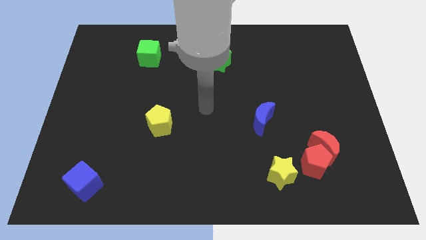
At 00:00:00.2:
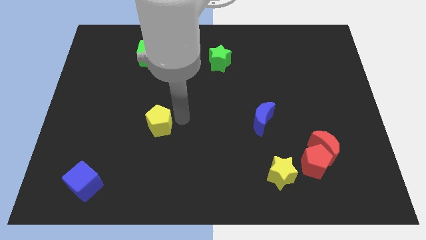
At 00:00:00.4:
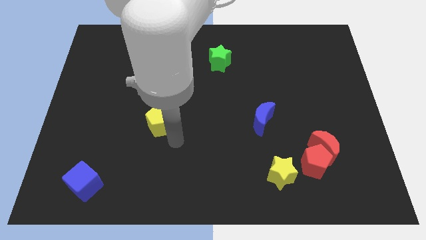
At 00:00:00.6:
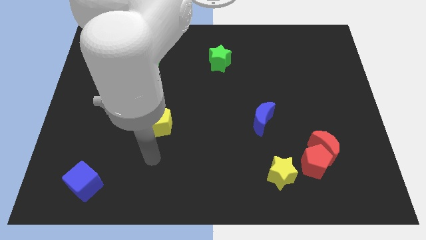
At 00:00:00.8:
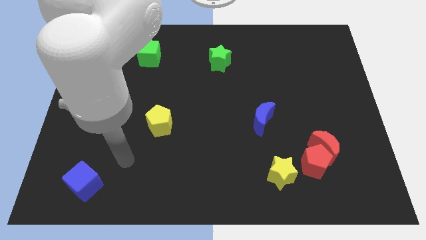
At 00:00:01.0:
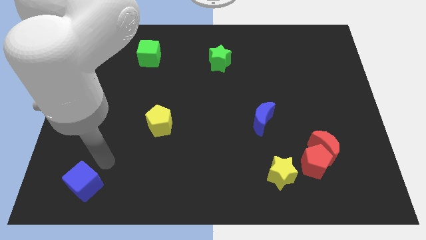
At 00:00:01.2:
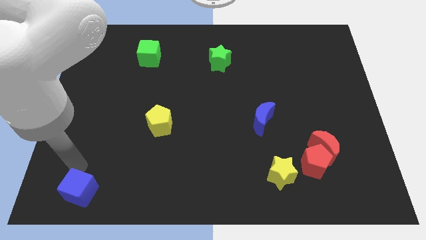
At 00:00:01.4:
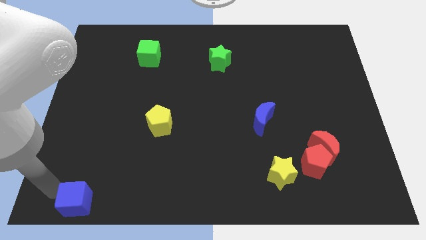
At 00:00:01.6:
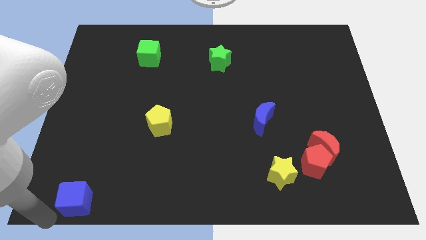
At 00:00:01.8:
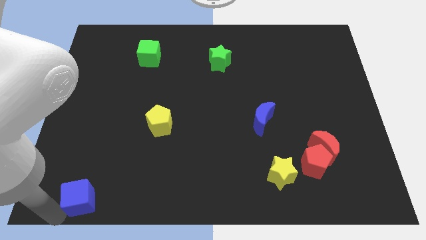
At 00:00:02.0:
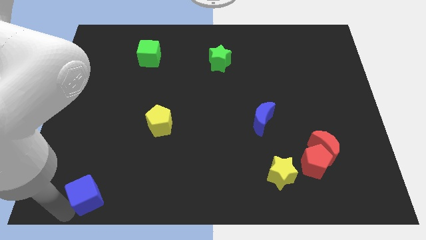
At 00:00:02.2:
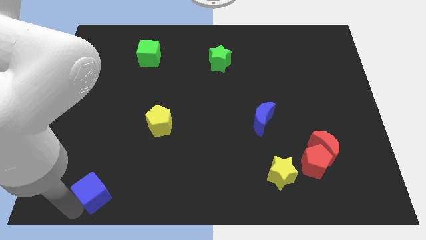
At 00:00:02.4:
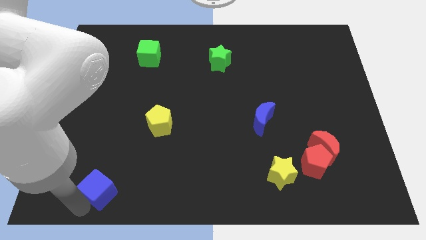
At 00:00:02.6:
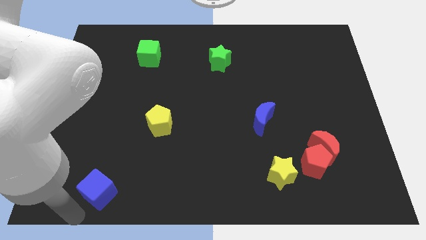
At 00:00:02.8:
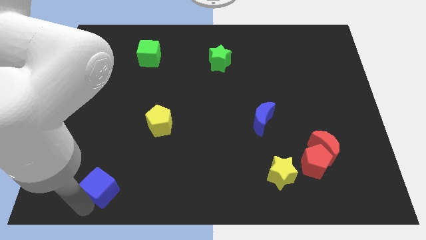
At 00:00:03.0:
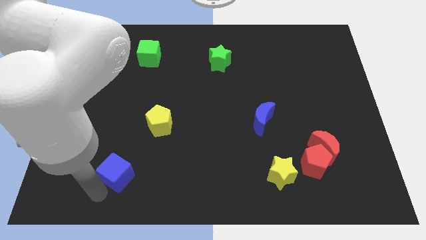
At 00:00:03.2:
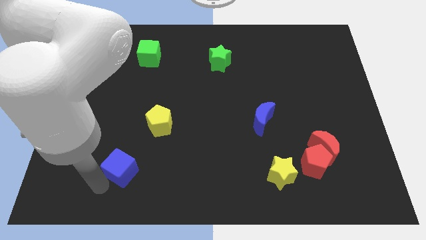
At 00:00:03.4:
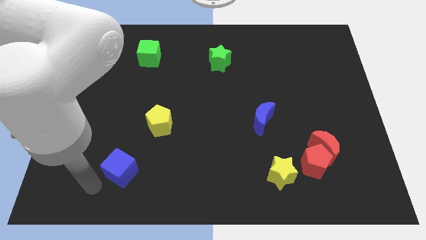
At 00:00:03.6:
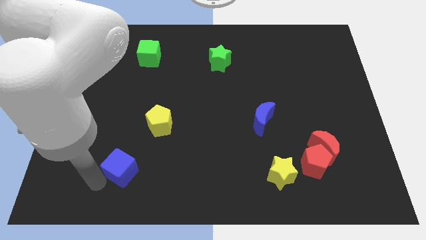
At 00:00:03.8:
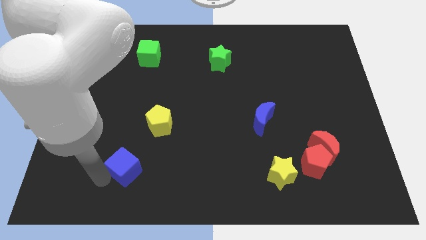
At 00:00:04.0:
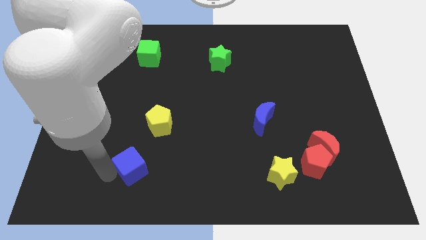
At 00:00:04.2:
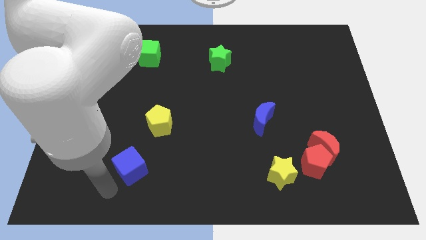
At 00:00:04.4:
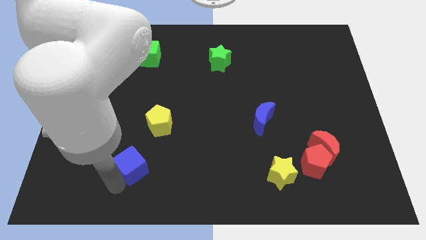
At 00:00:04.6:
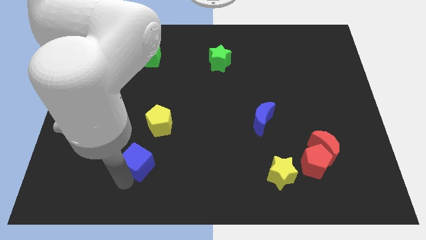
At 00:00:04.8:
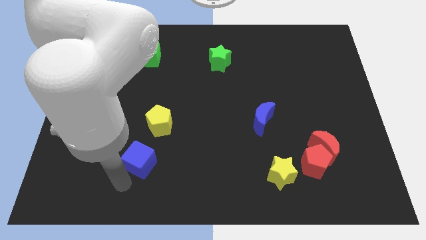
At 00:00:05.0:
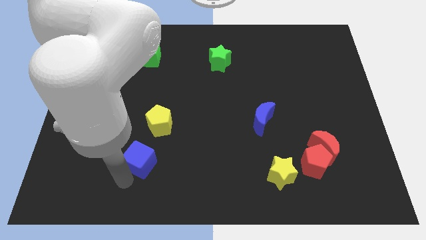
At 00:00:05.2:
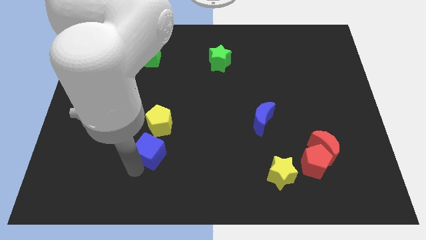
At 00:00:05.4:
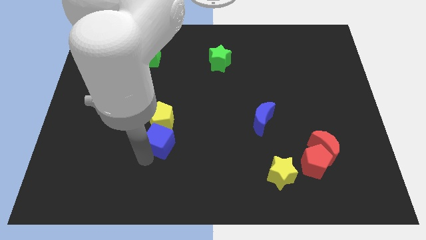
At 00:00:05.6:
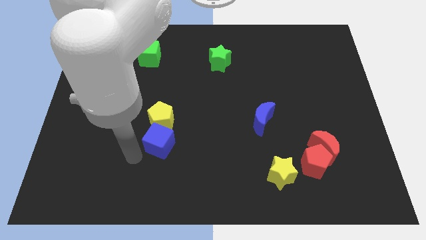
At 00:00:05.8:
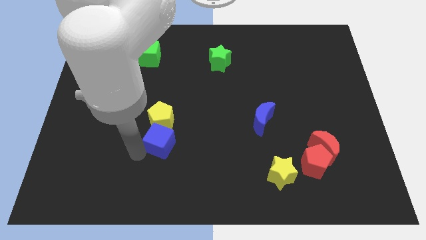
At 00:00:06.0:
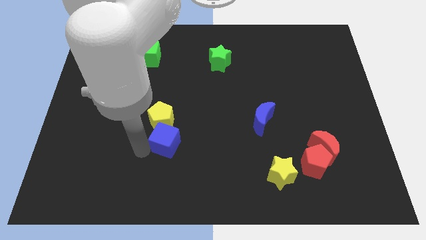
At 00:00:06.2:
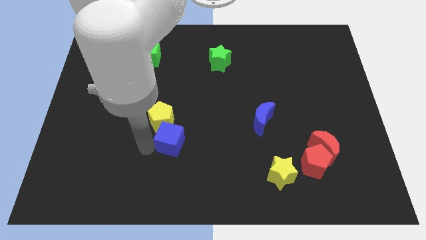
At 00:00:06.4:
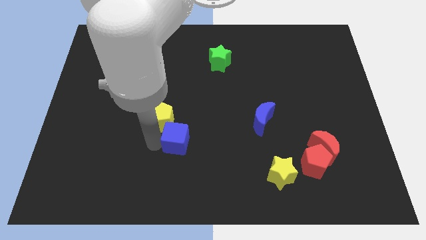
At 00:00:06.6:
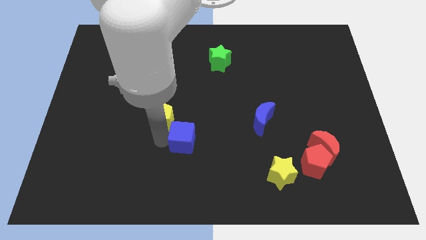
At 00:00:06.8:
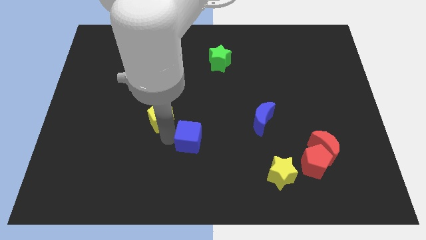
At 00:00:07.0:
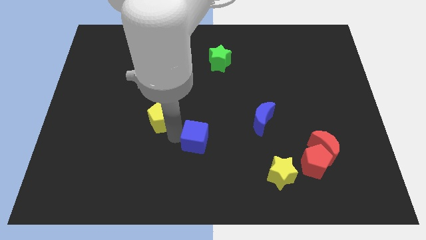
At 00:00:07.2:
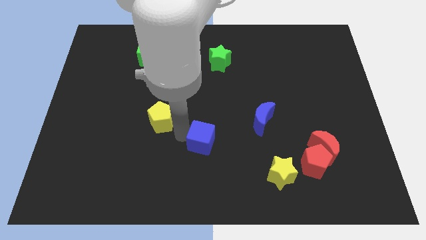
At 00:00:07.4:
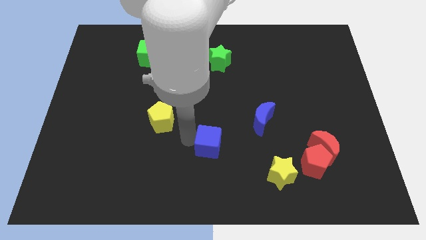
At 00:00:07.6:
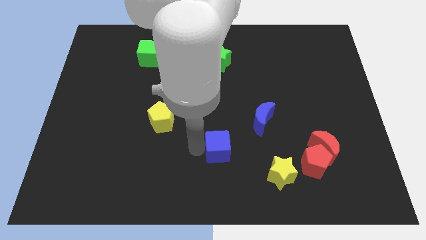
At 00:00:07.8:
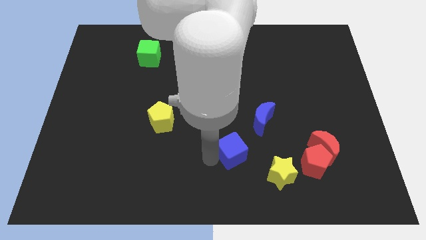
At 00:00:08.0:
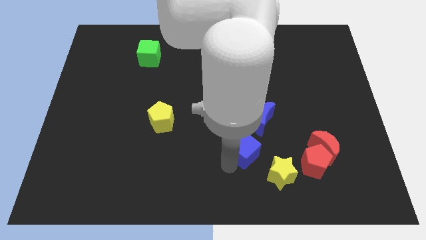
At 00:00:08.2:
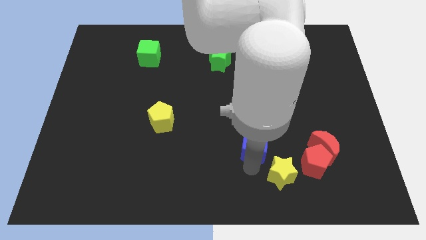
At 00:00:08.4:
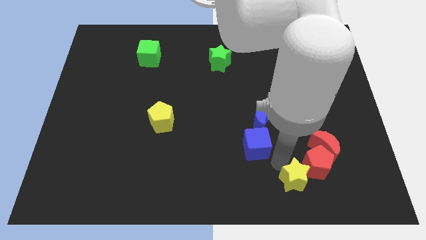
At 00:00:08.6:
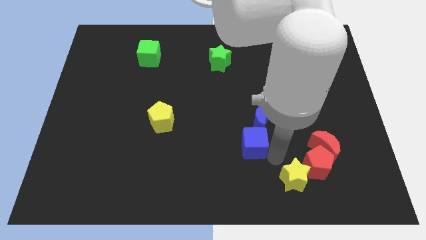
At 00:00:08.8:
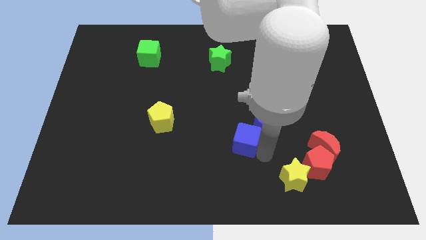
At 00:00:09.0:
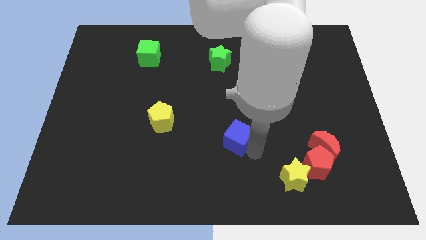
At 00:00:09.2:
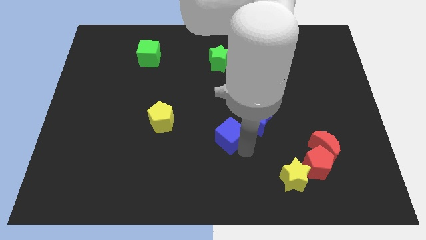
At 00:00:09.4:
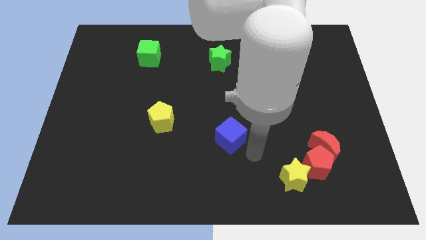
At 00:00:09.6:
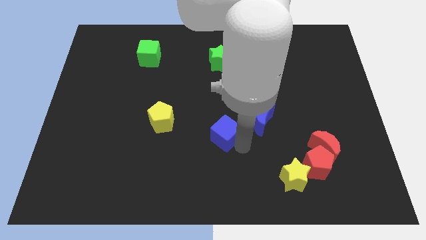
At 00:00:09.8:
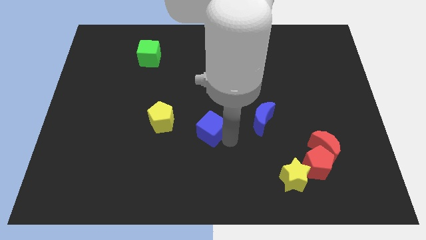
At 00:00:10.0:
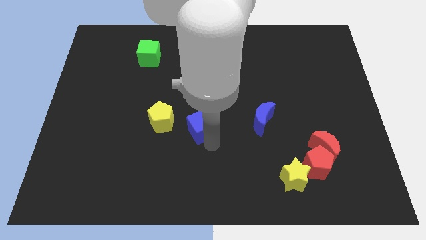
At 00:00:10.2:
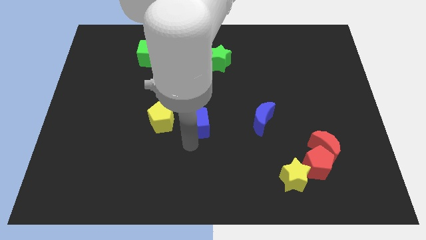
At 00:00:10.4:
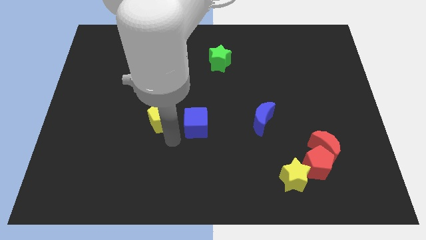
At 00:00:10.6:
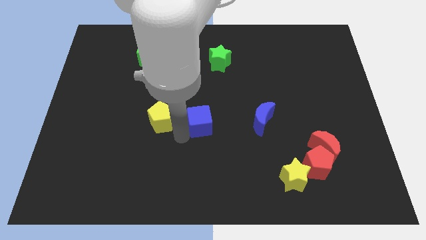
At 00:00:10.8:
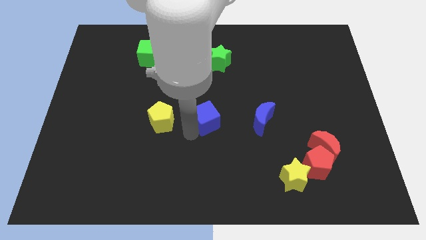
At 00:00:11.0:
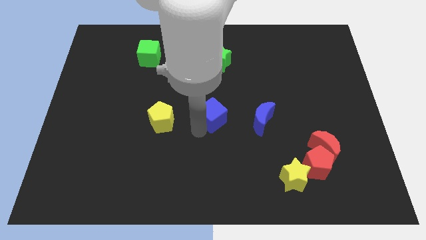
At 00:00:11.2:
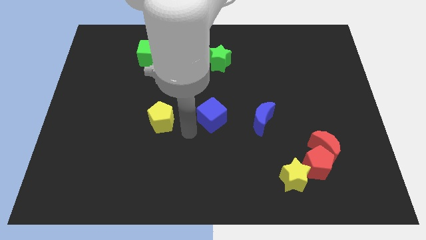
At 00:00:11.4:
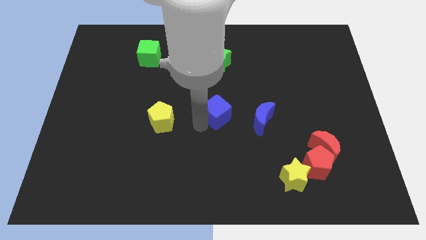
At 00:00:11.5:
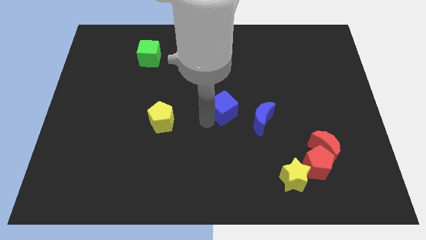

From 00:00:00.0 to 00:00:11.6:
move the blue cube to the top left of the blue moon

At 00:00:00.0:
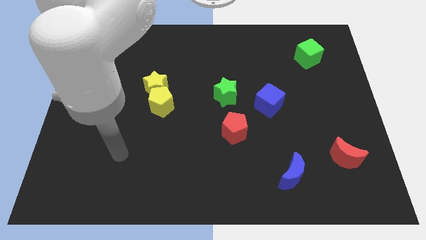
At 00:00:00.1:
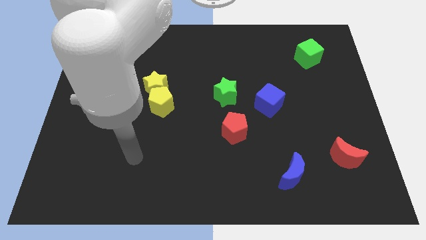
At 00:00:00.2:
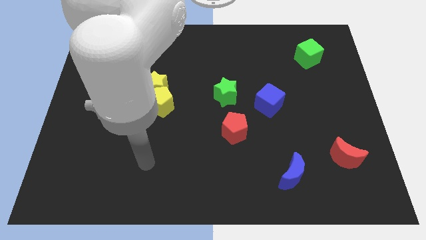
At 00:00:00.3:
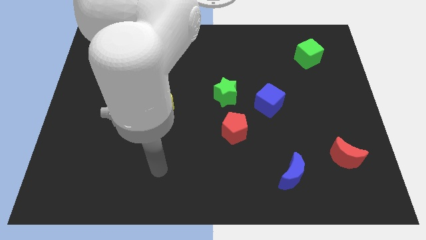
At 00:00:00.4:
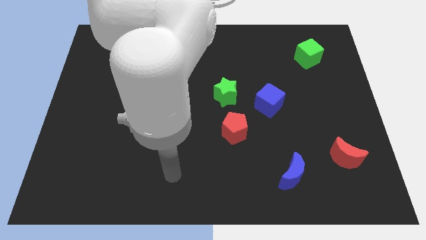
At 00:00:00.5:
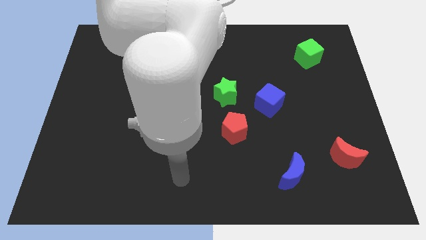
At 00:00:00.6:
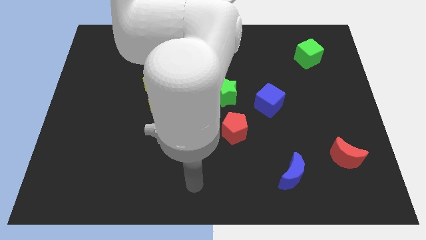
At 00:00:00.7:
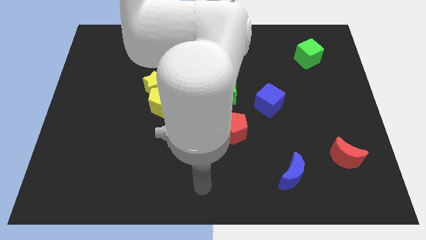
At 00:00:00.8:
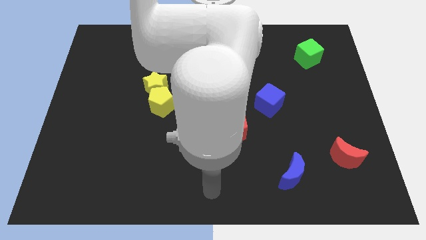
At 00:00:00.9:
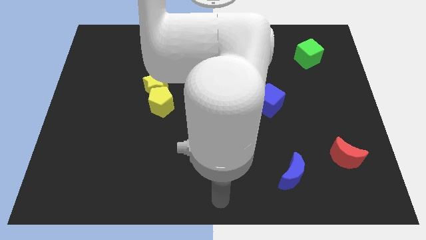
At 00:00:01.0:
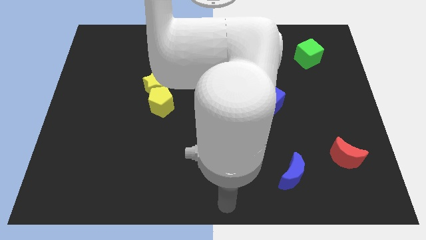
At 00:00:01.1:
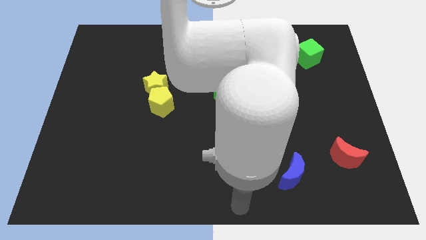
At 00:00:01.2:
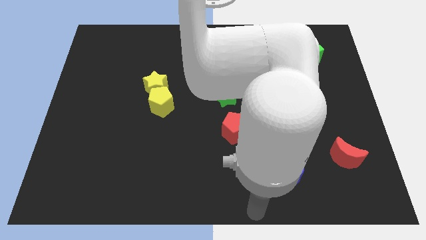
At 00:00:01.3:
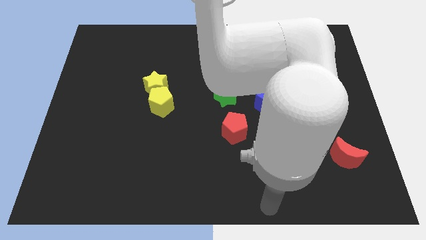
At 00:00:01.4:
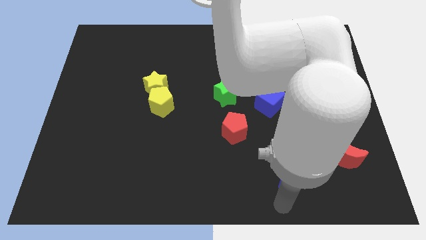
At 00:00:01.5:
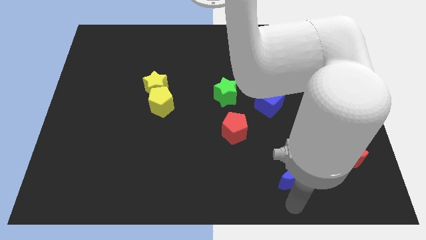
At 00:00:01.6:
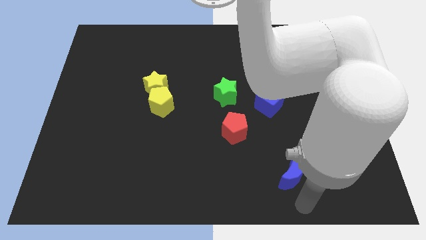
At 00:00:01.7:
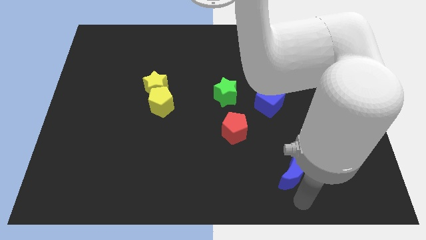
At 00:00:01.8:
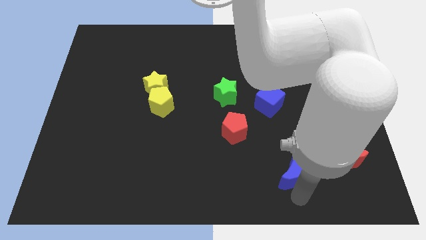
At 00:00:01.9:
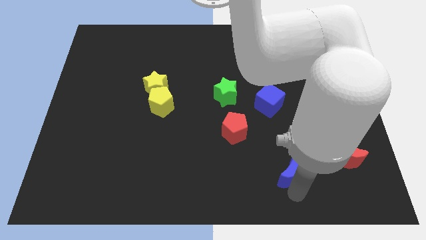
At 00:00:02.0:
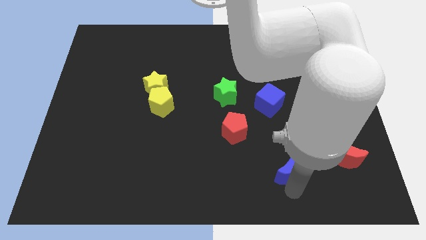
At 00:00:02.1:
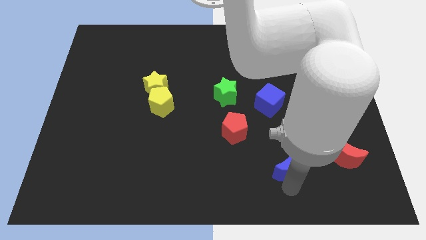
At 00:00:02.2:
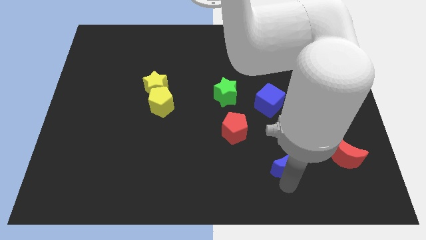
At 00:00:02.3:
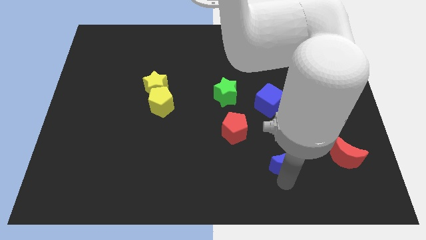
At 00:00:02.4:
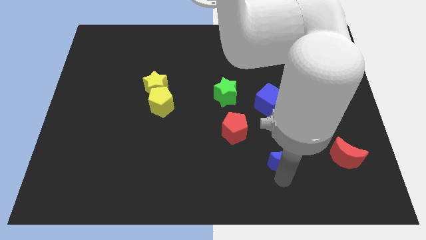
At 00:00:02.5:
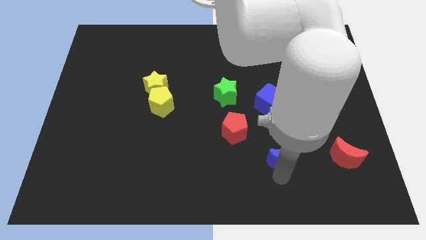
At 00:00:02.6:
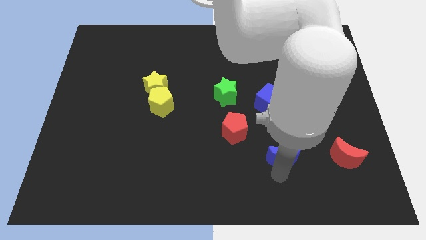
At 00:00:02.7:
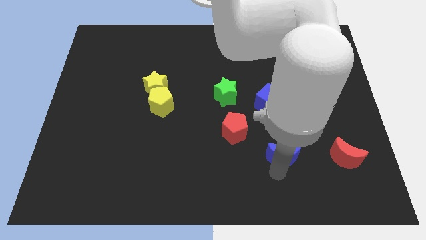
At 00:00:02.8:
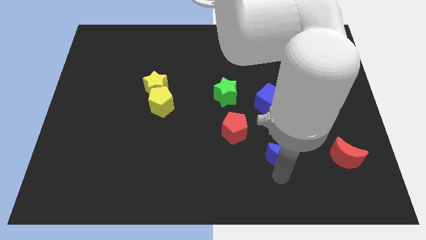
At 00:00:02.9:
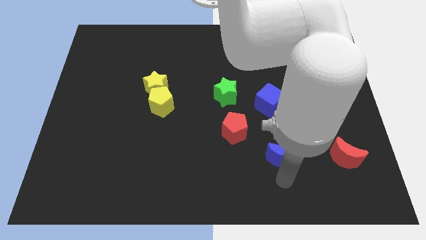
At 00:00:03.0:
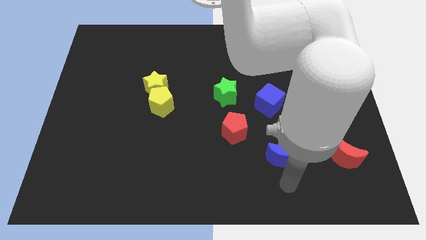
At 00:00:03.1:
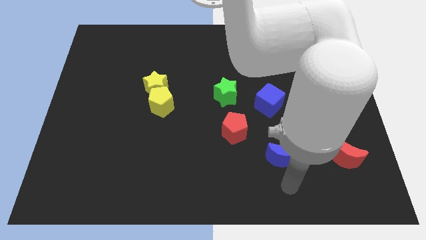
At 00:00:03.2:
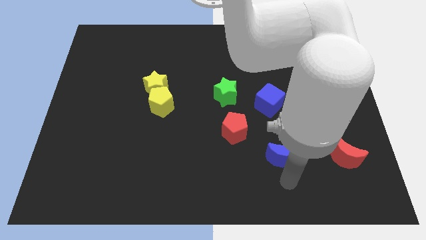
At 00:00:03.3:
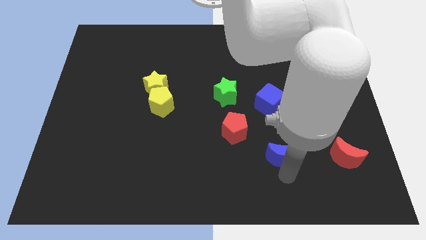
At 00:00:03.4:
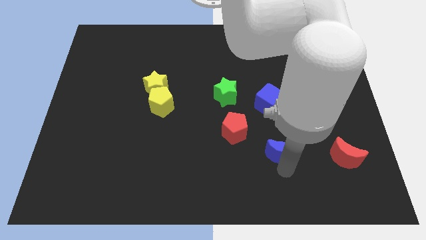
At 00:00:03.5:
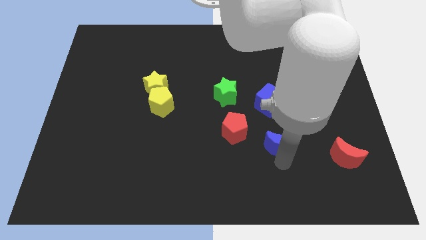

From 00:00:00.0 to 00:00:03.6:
move the blue moon to the right side of the red pentagon
